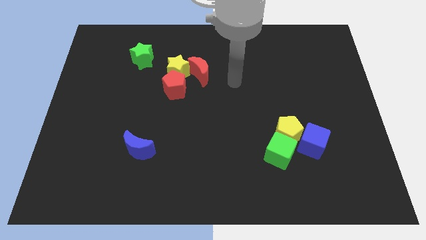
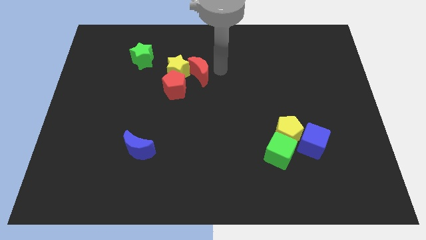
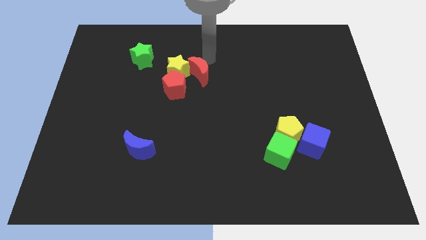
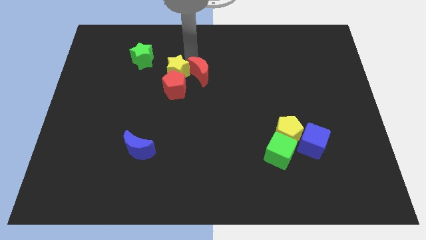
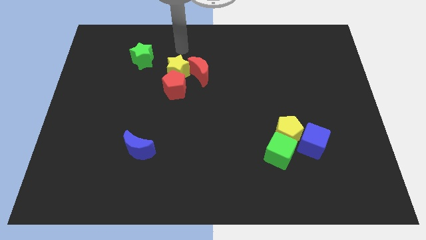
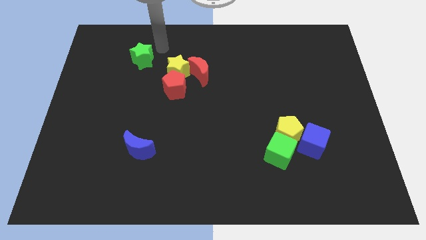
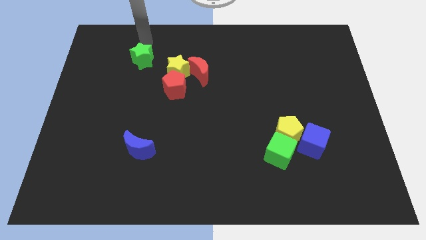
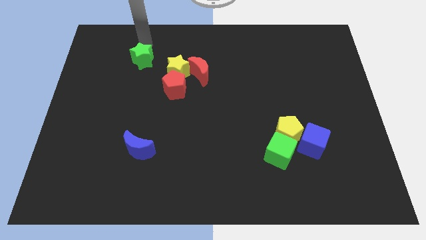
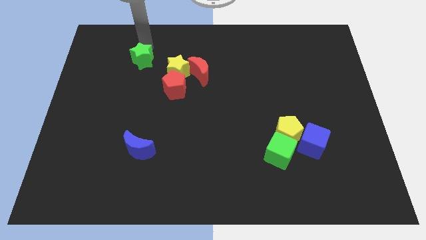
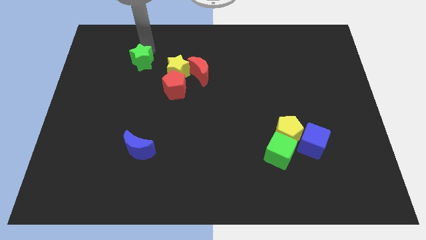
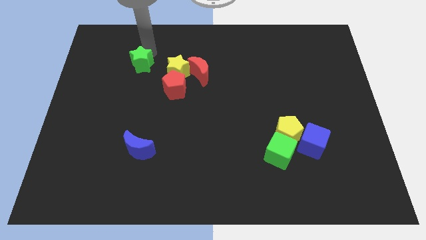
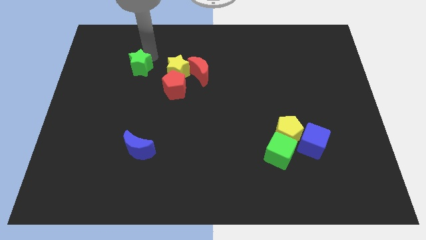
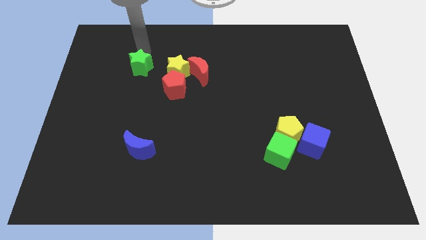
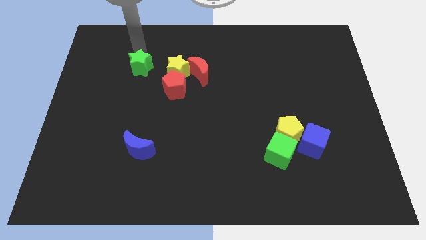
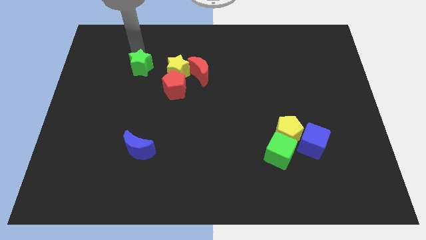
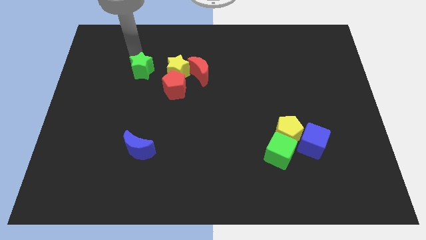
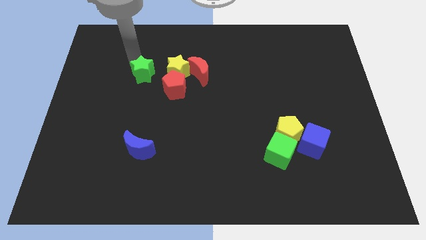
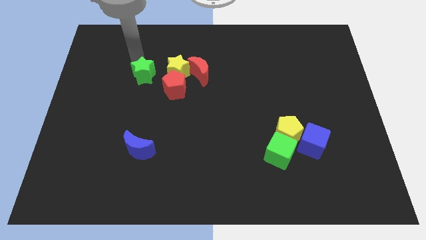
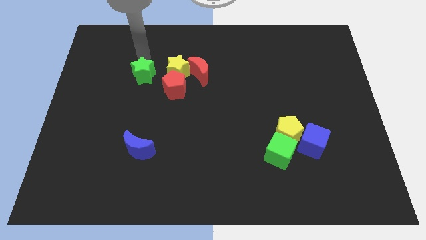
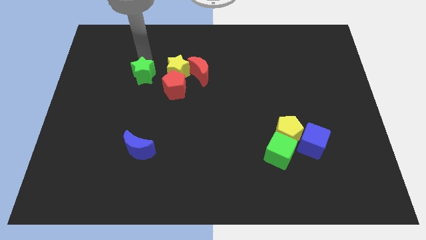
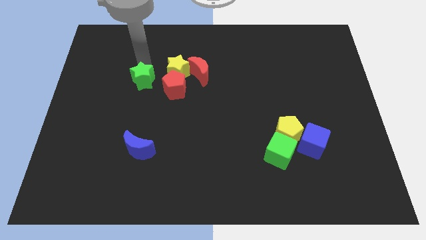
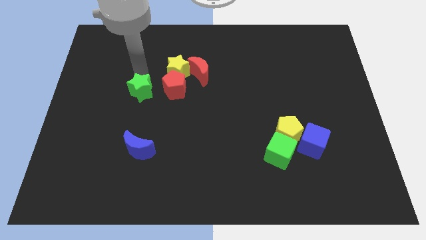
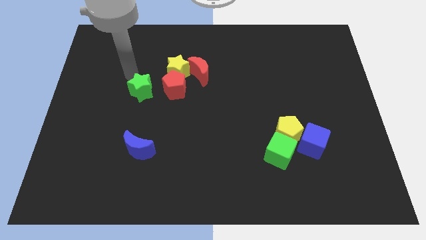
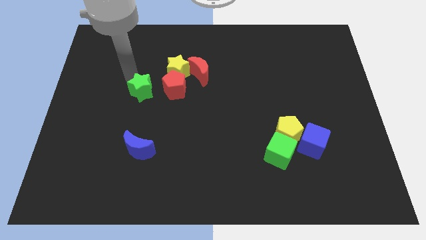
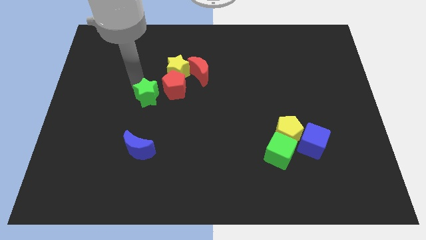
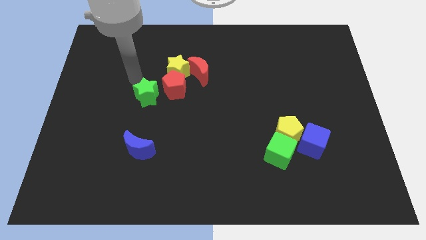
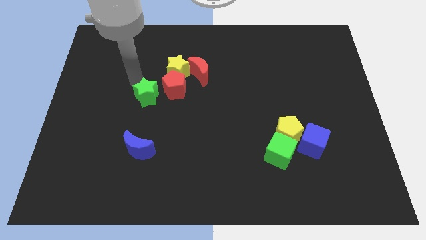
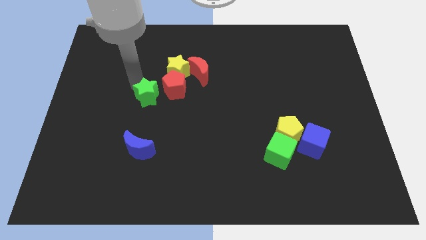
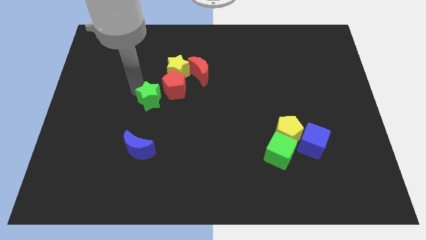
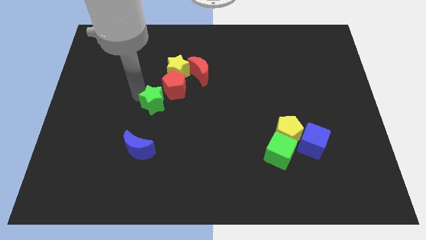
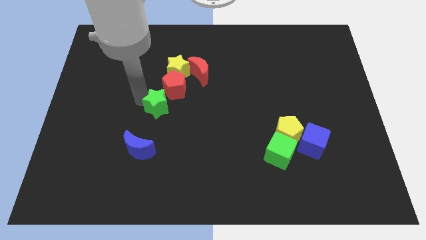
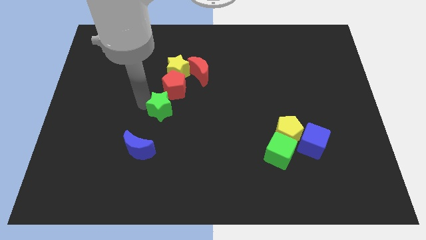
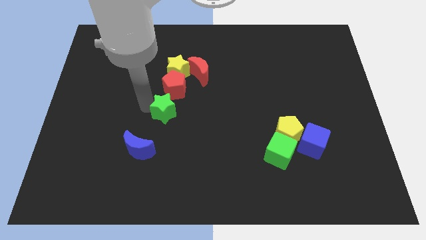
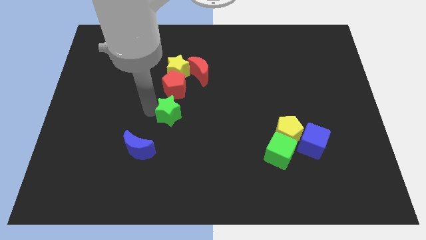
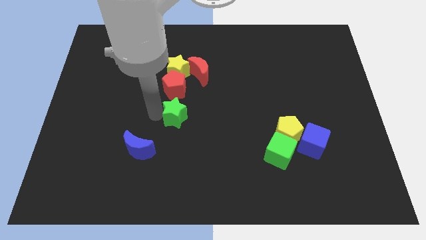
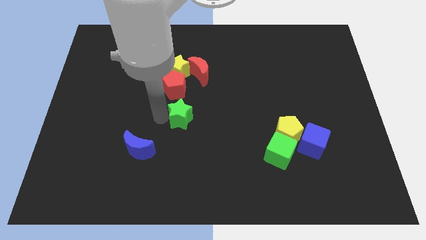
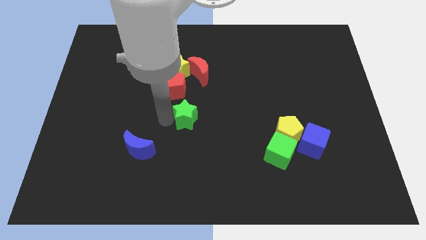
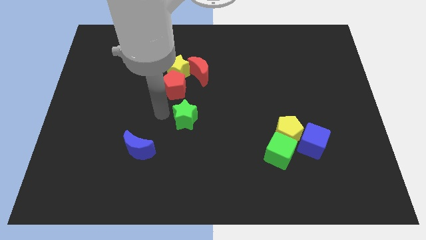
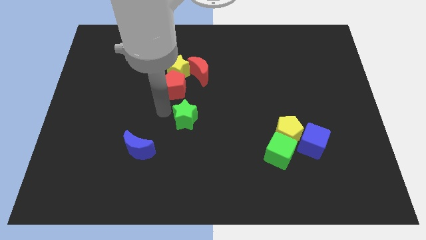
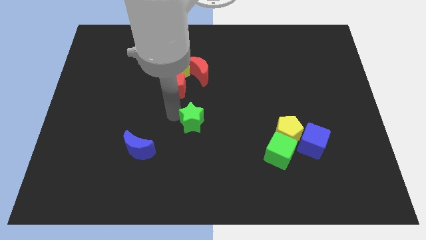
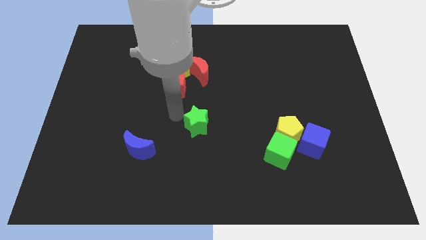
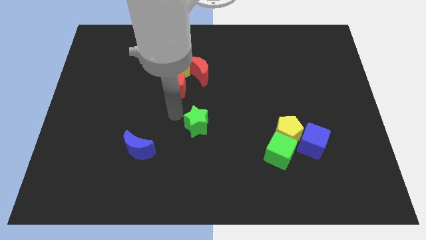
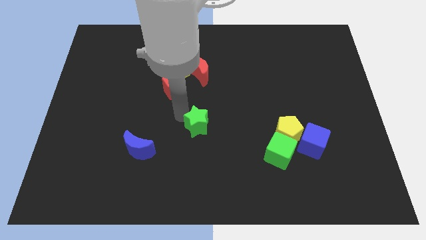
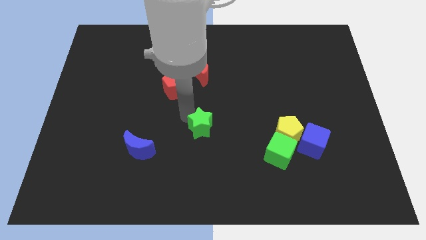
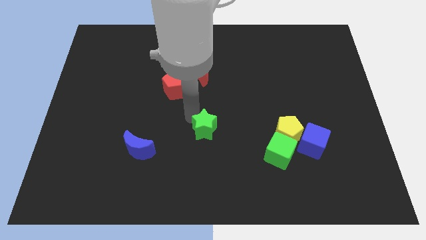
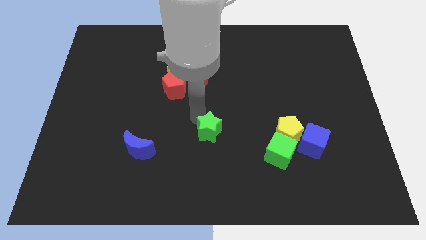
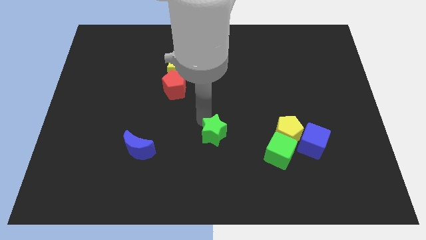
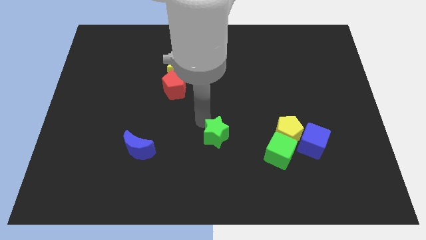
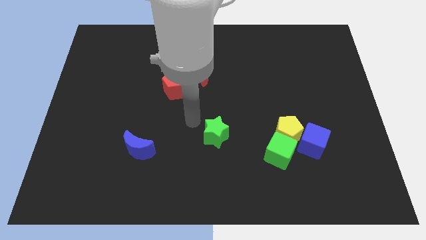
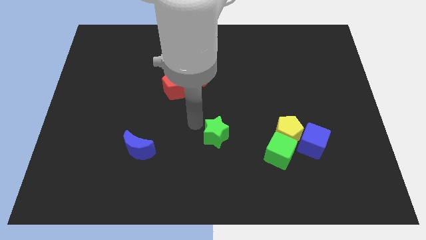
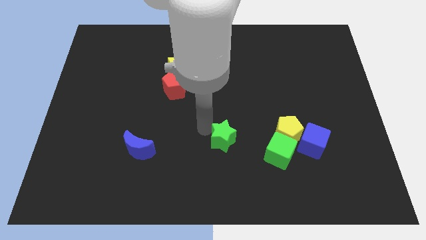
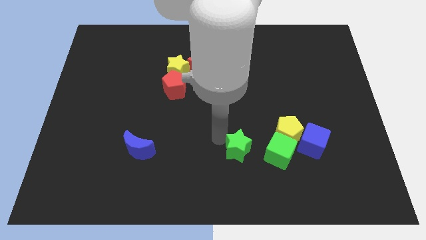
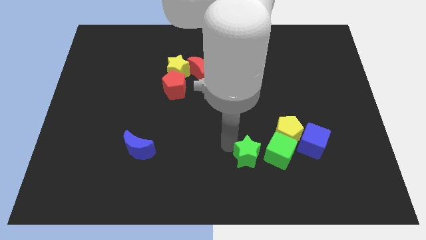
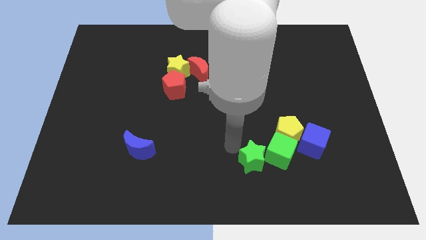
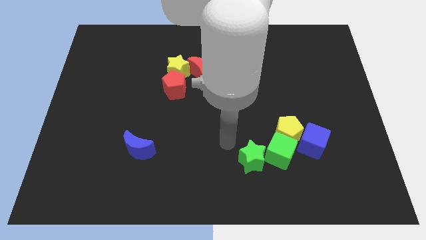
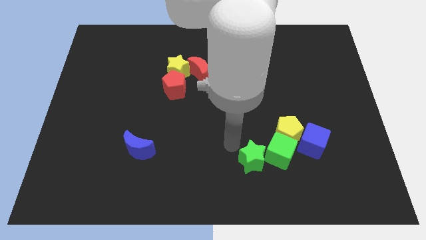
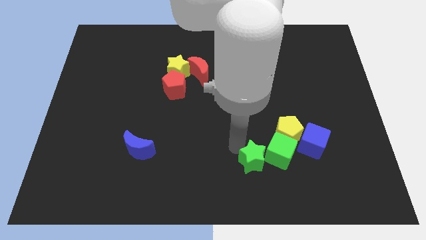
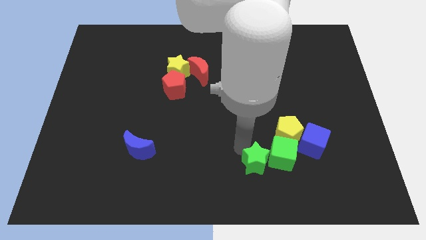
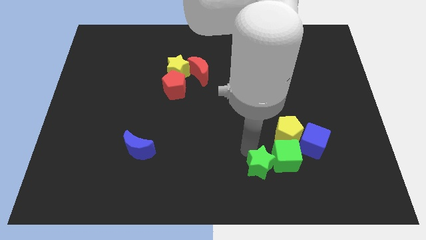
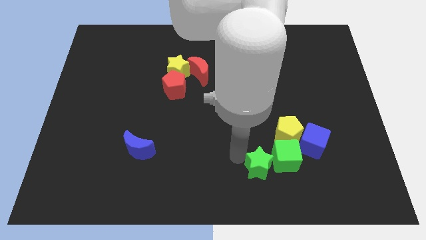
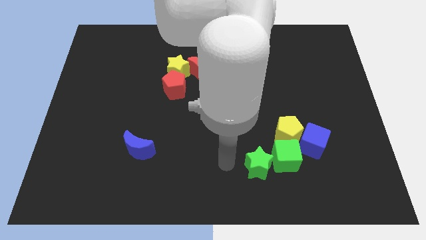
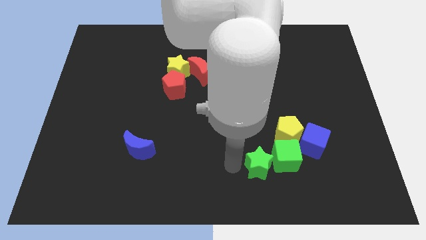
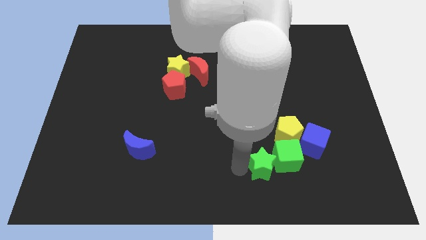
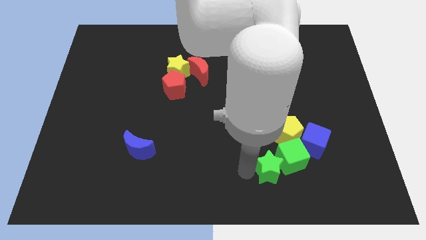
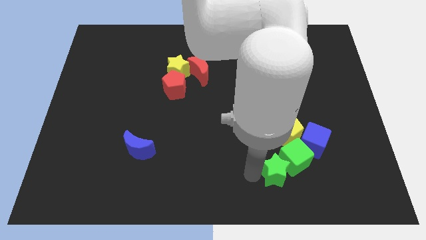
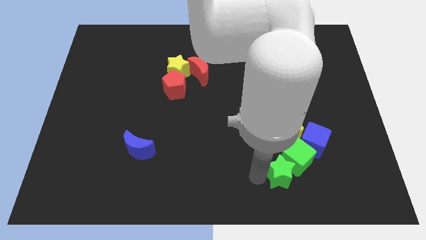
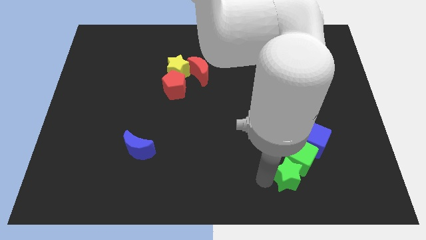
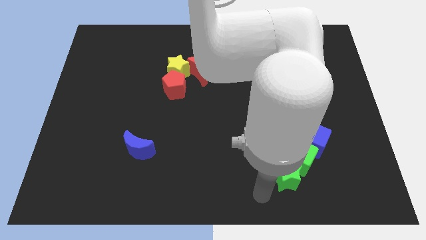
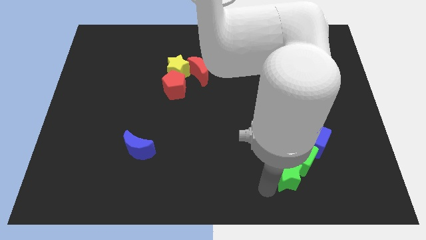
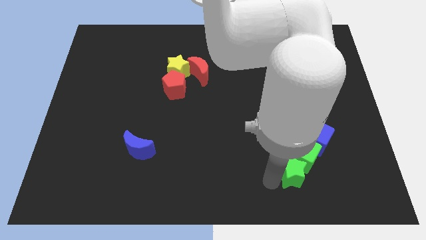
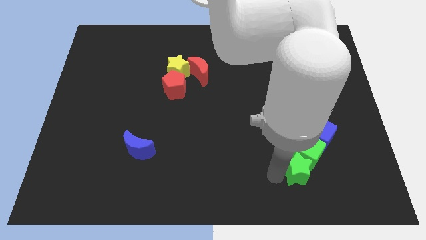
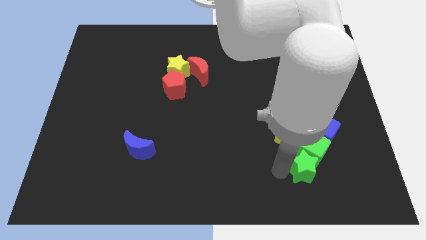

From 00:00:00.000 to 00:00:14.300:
push the green star to the bottom right of the yellow pentagon
